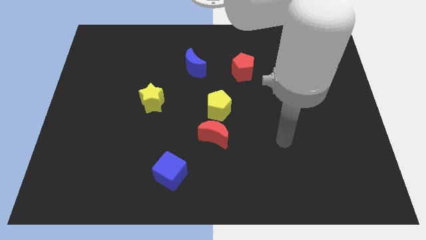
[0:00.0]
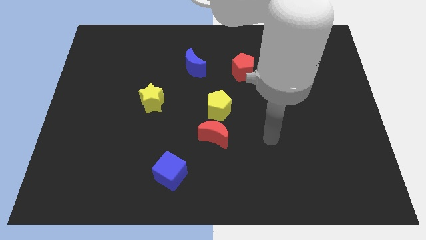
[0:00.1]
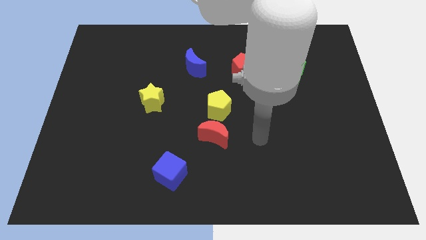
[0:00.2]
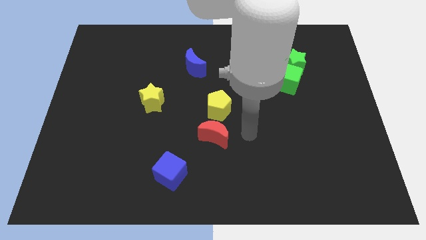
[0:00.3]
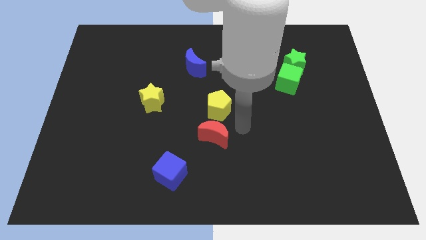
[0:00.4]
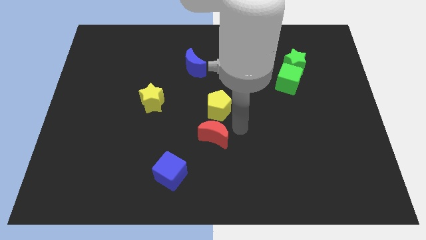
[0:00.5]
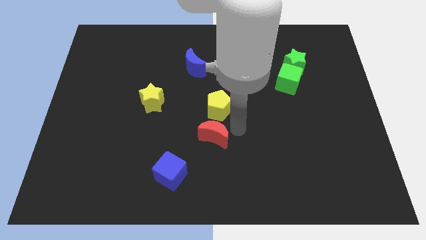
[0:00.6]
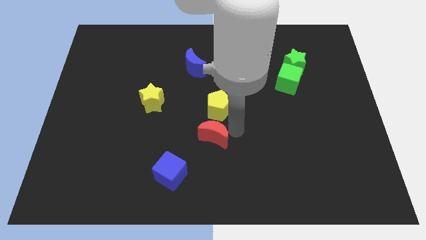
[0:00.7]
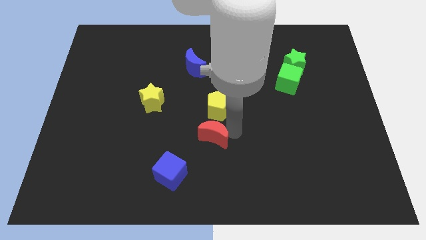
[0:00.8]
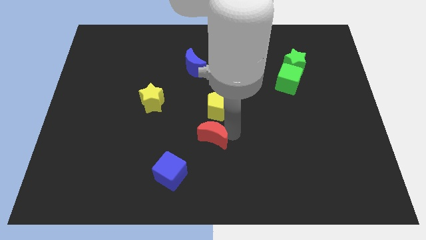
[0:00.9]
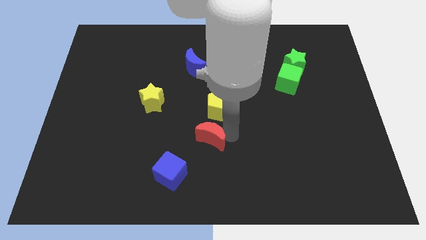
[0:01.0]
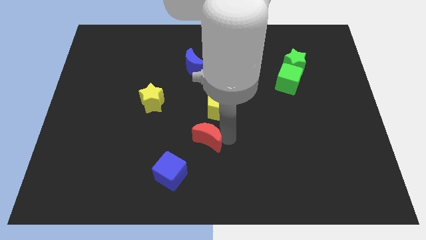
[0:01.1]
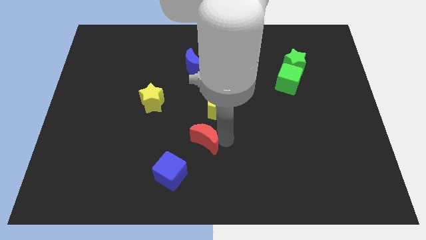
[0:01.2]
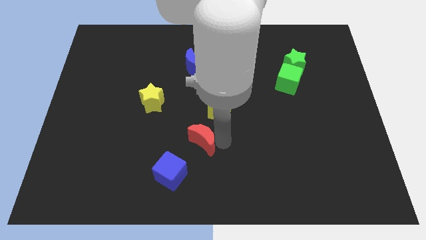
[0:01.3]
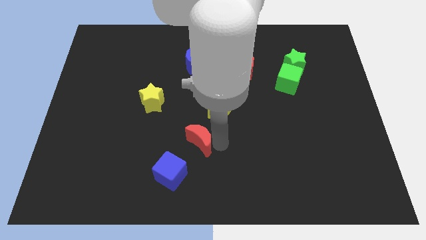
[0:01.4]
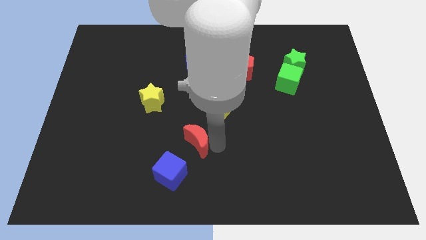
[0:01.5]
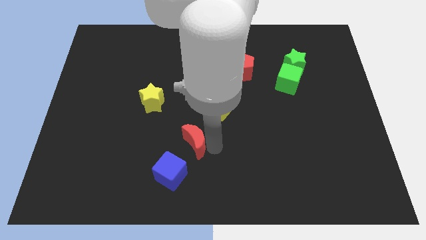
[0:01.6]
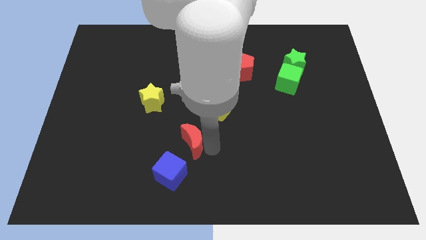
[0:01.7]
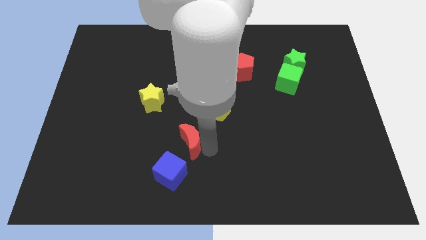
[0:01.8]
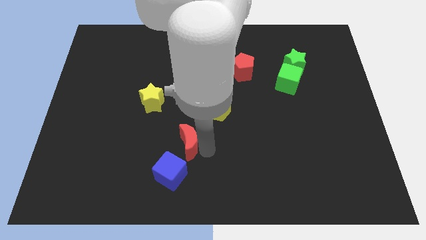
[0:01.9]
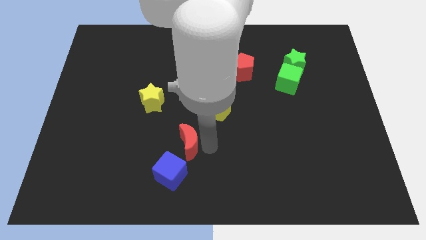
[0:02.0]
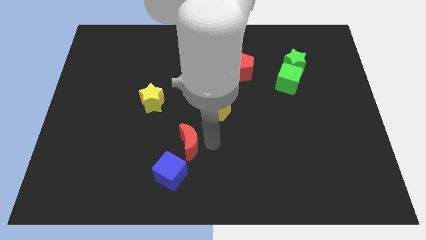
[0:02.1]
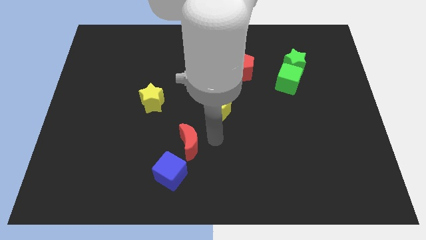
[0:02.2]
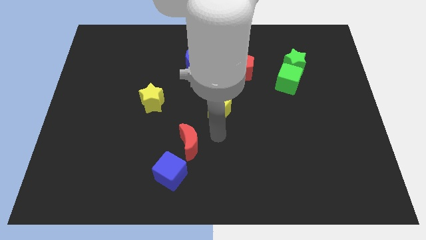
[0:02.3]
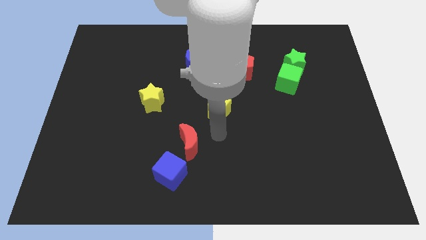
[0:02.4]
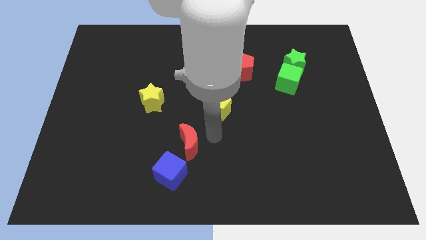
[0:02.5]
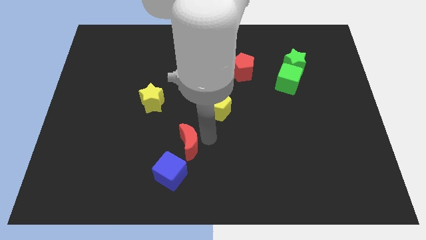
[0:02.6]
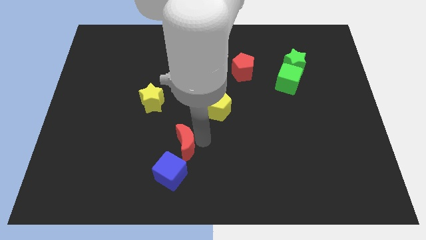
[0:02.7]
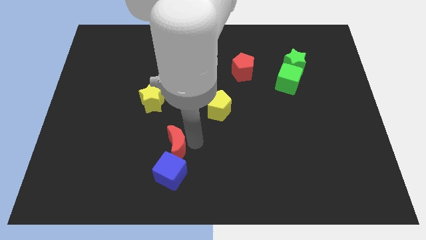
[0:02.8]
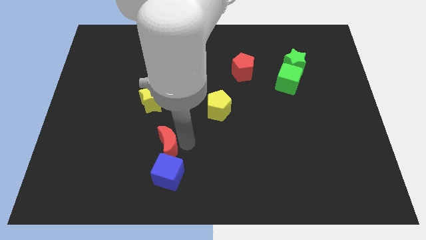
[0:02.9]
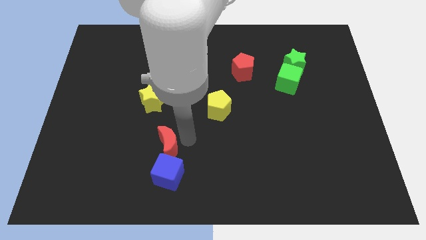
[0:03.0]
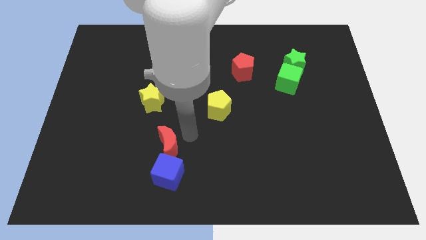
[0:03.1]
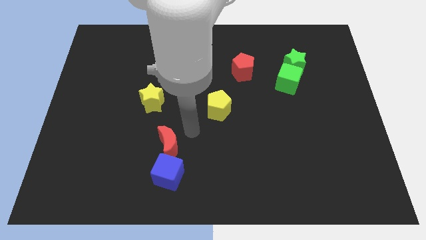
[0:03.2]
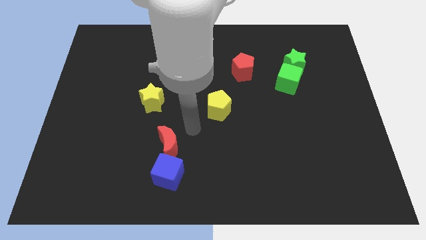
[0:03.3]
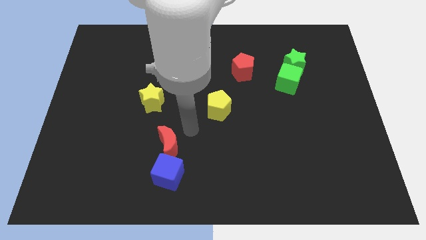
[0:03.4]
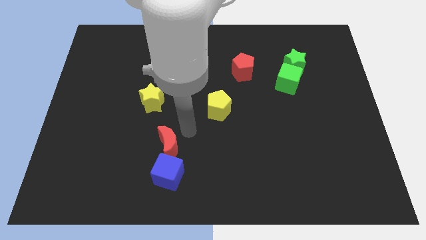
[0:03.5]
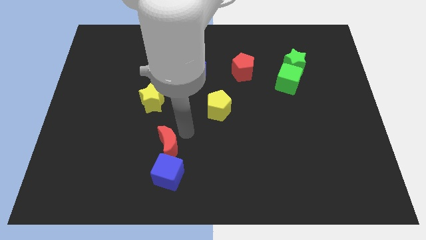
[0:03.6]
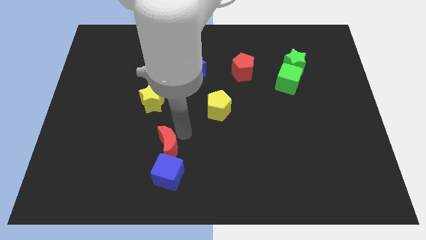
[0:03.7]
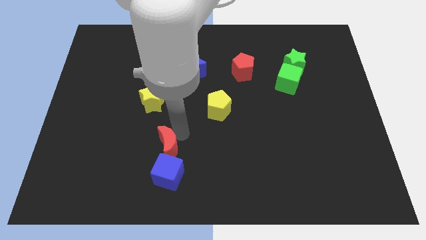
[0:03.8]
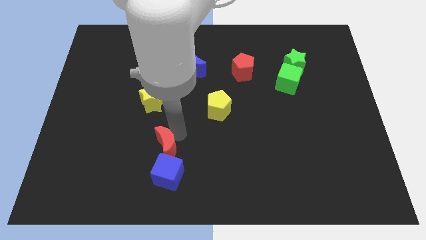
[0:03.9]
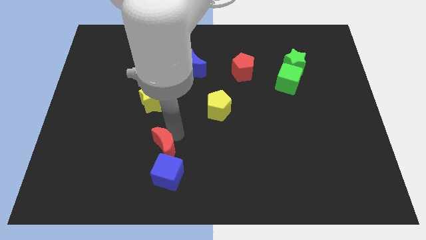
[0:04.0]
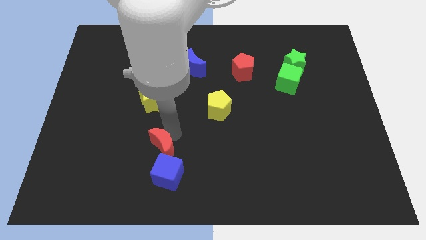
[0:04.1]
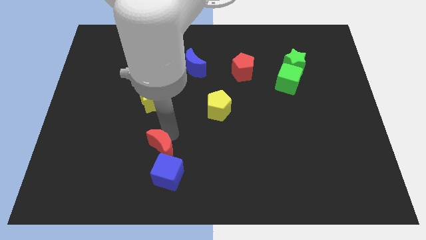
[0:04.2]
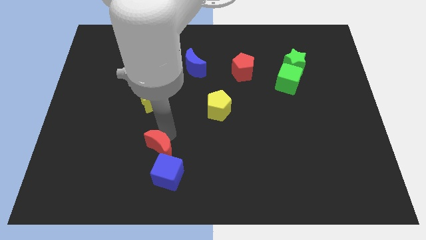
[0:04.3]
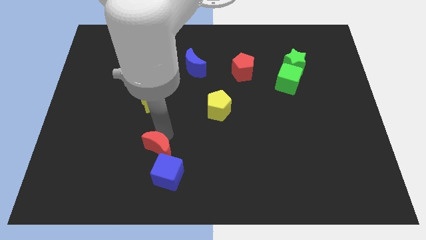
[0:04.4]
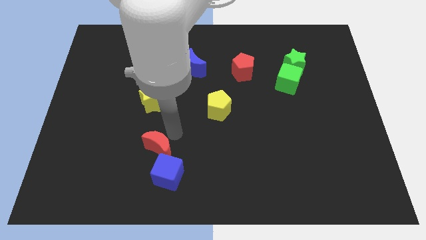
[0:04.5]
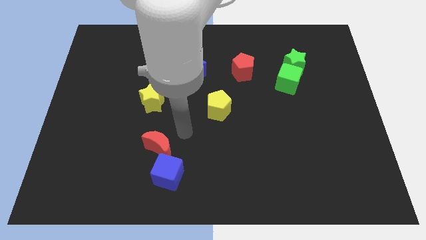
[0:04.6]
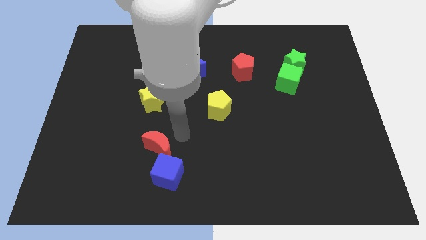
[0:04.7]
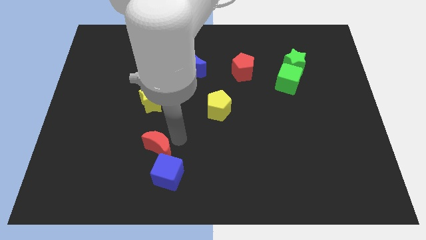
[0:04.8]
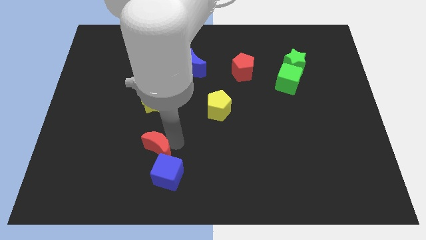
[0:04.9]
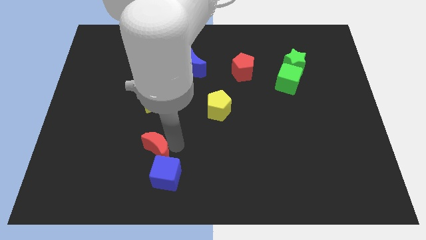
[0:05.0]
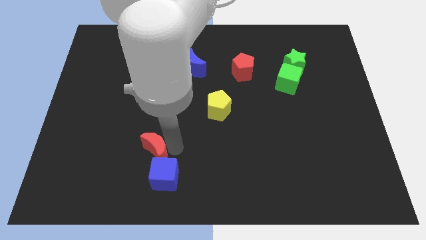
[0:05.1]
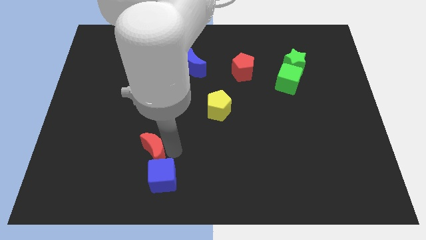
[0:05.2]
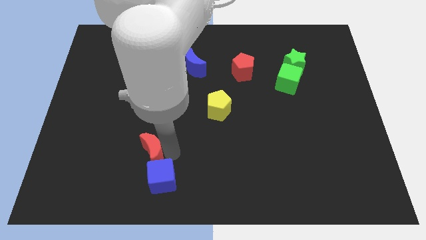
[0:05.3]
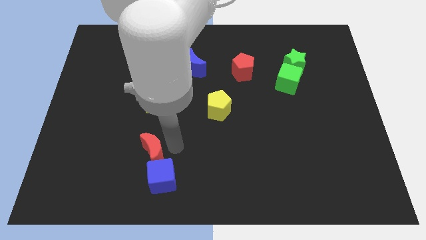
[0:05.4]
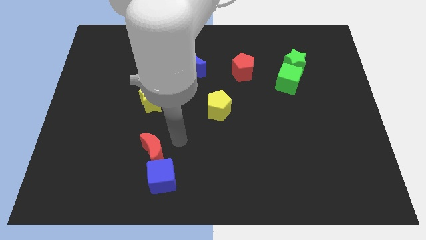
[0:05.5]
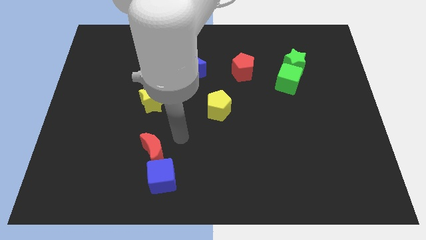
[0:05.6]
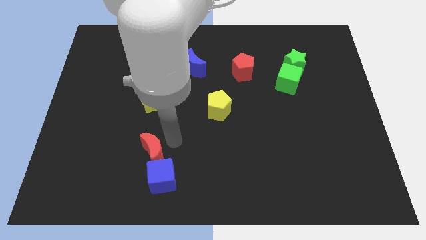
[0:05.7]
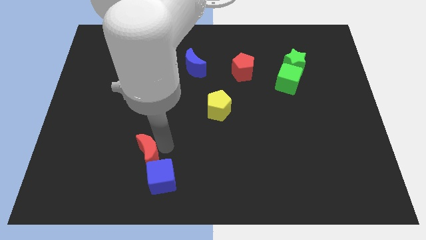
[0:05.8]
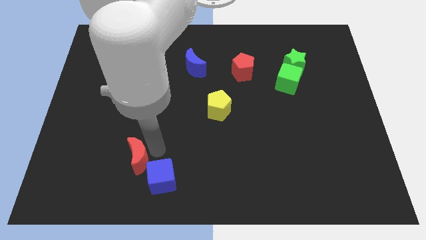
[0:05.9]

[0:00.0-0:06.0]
put the red moon to the left side of the blue cube
